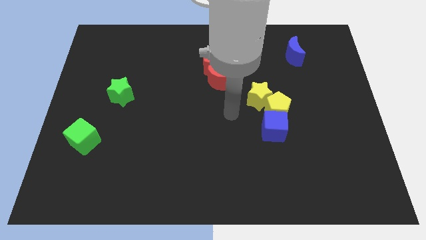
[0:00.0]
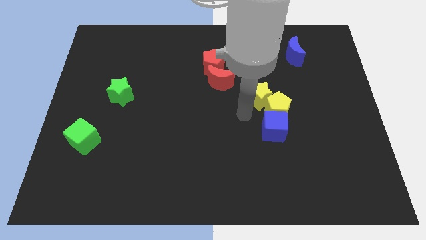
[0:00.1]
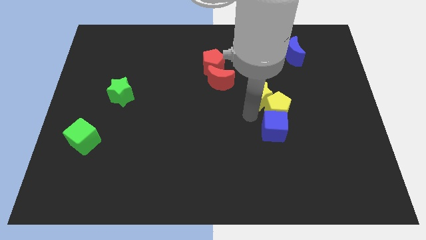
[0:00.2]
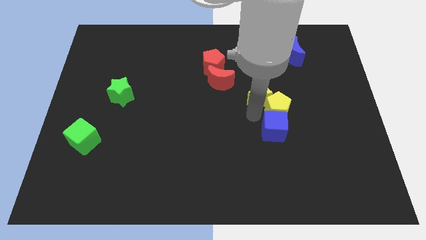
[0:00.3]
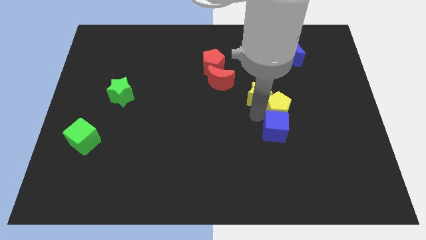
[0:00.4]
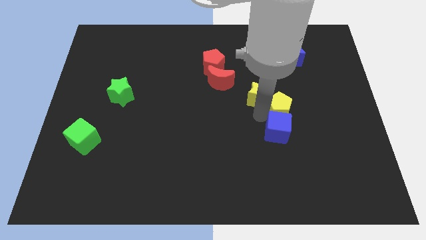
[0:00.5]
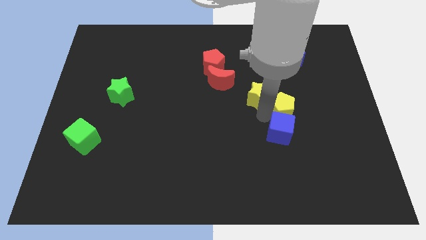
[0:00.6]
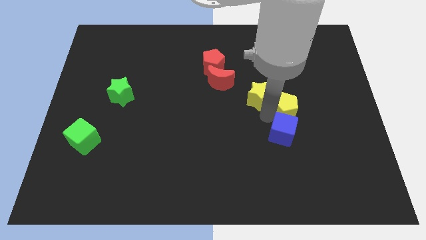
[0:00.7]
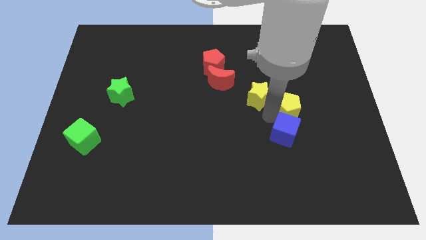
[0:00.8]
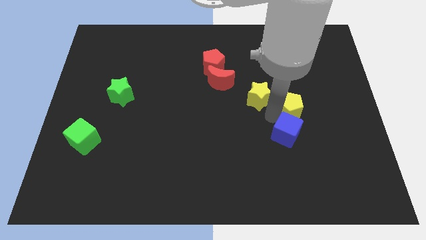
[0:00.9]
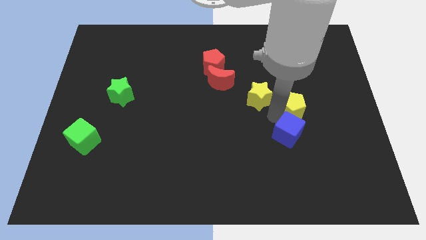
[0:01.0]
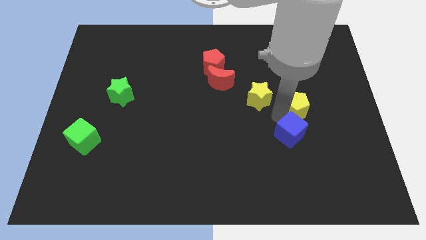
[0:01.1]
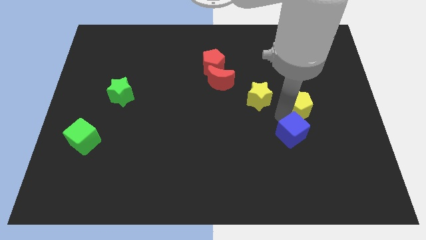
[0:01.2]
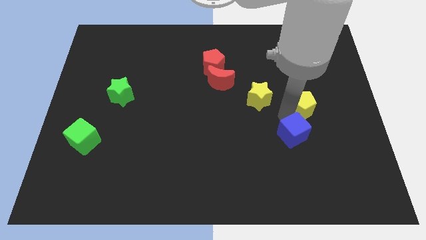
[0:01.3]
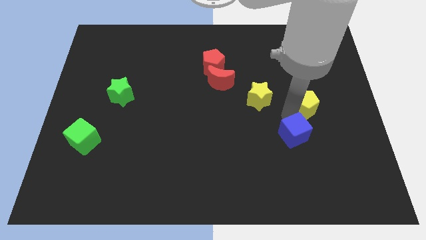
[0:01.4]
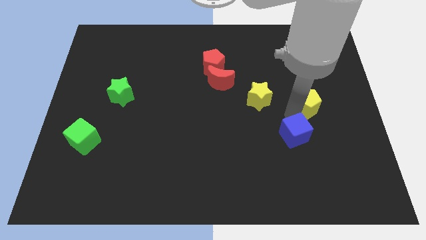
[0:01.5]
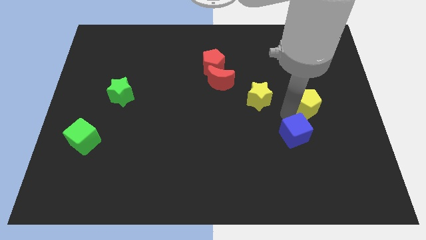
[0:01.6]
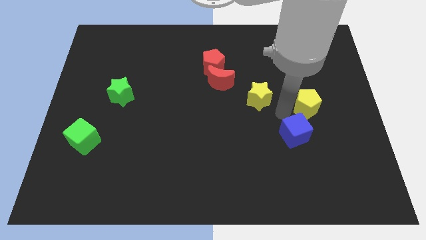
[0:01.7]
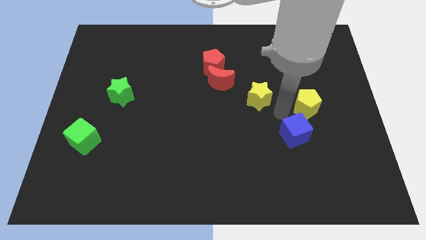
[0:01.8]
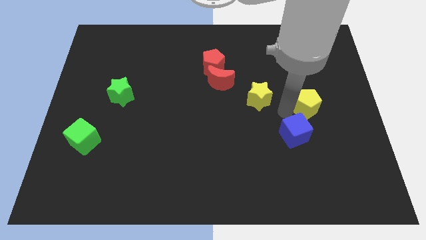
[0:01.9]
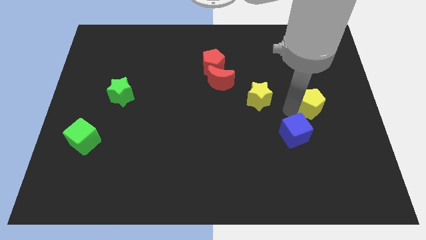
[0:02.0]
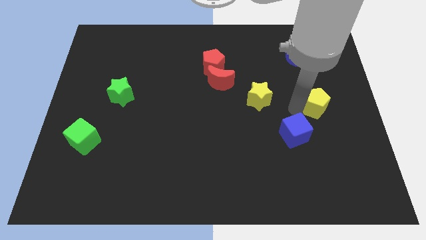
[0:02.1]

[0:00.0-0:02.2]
pull the yellow pentagon apart from the blue cube and yellow star

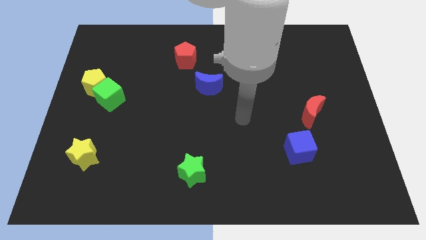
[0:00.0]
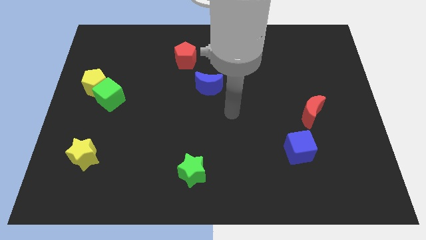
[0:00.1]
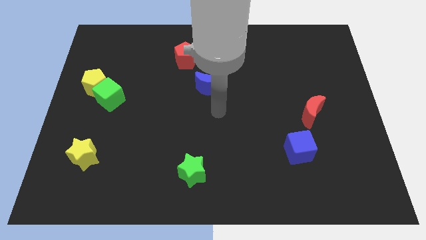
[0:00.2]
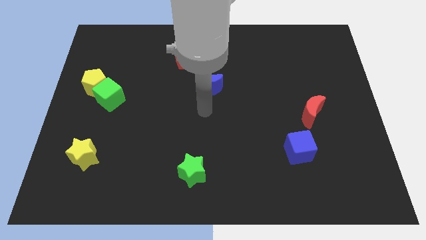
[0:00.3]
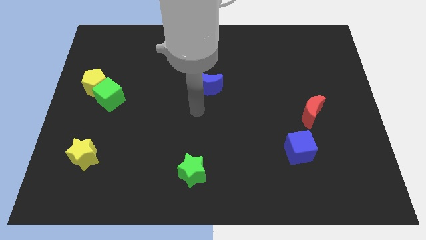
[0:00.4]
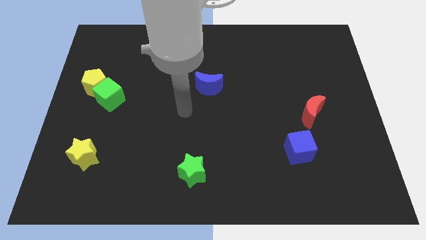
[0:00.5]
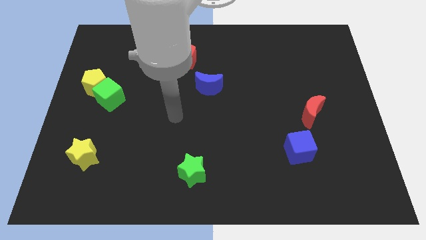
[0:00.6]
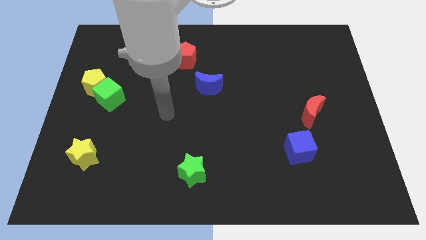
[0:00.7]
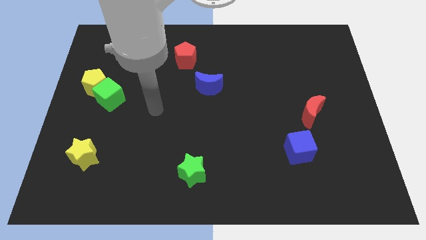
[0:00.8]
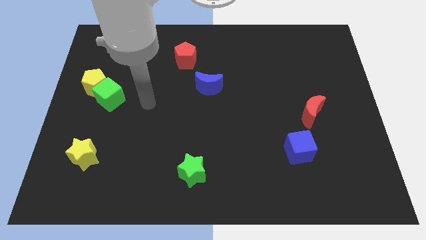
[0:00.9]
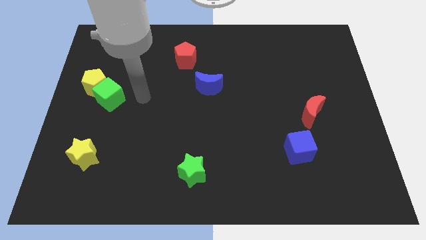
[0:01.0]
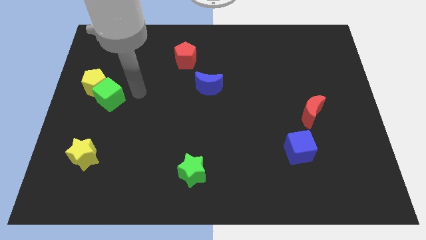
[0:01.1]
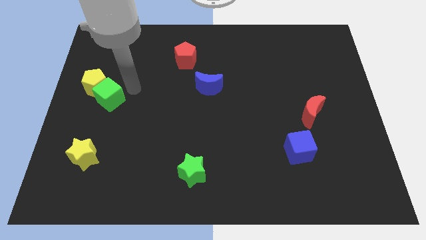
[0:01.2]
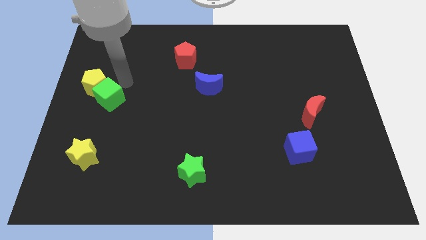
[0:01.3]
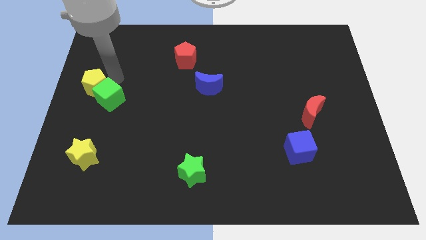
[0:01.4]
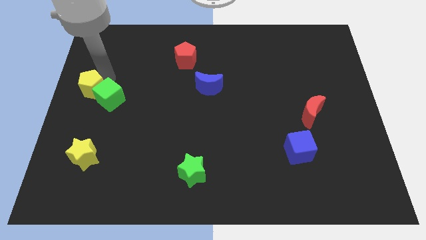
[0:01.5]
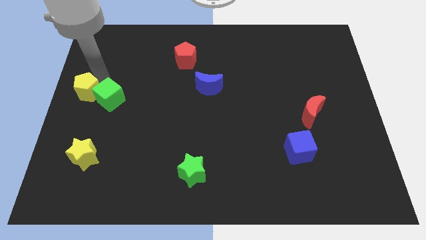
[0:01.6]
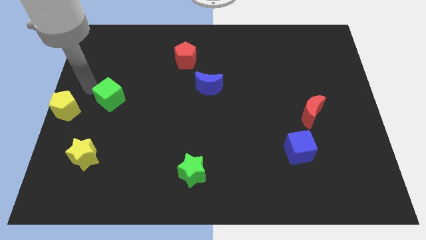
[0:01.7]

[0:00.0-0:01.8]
pull the green cube apart from the yellow pentagon

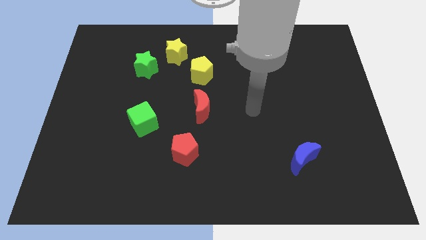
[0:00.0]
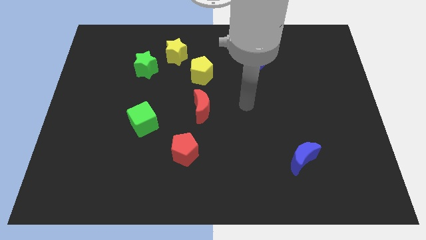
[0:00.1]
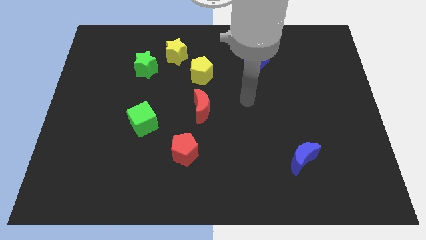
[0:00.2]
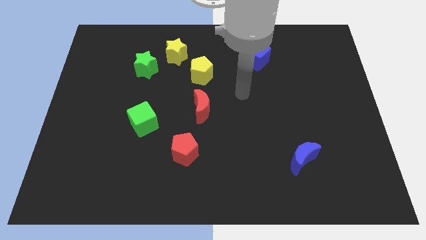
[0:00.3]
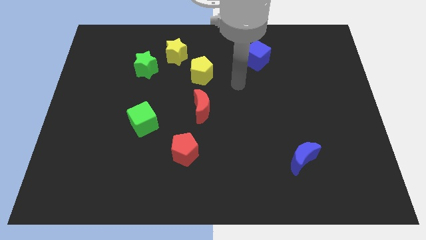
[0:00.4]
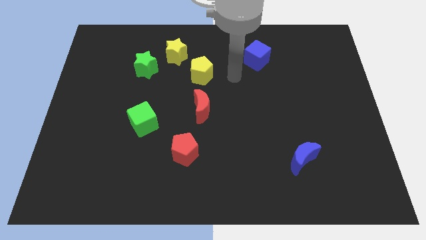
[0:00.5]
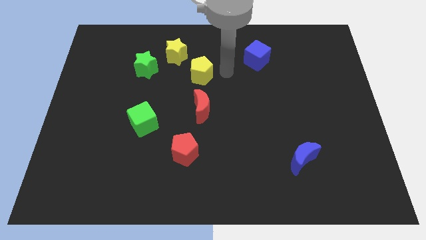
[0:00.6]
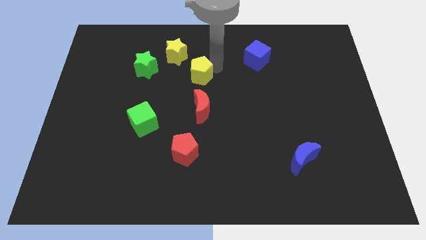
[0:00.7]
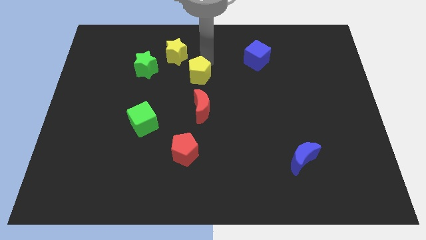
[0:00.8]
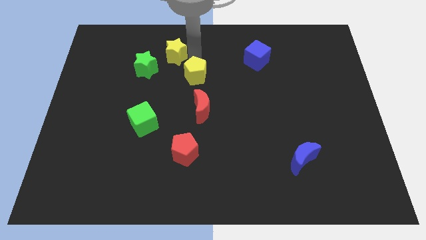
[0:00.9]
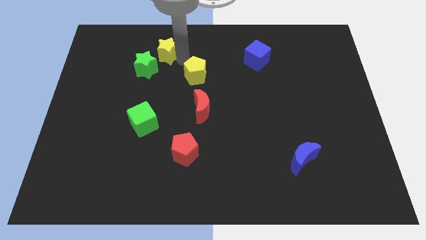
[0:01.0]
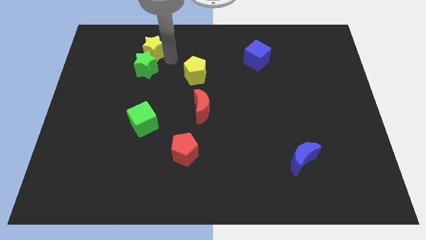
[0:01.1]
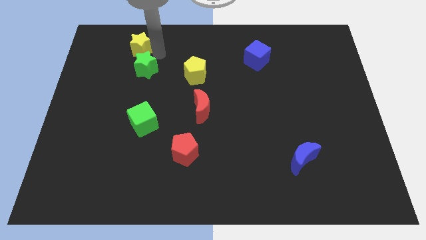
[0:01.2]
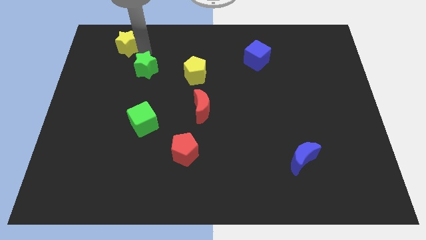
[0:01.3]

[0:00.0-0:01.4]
separate the green star from the yellow star

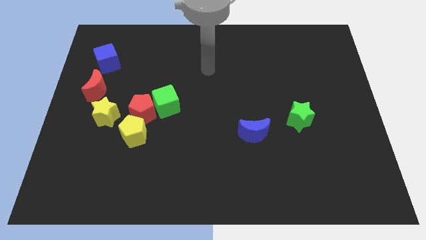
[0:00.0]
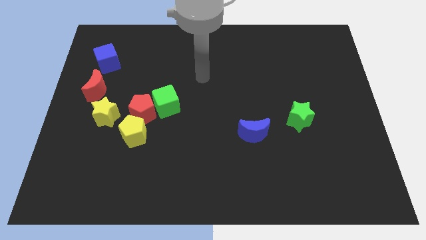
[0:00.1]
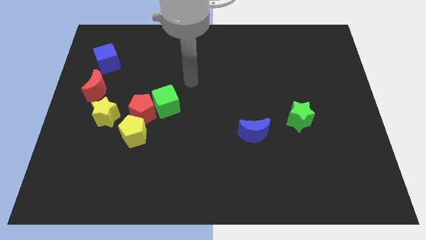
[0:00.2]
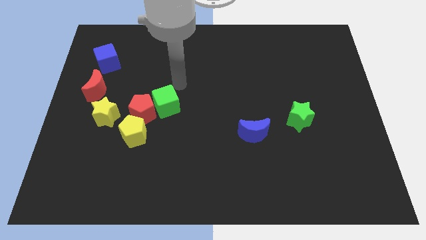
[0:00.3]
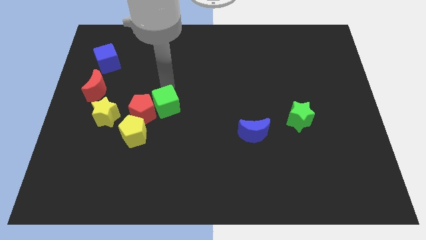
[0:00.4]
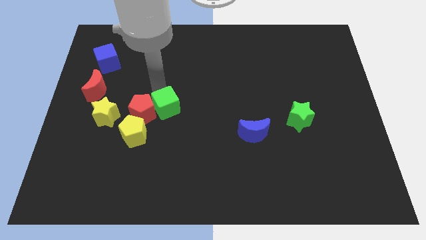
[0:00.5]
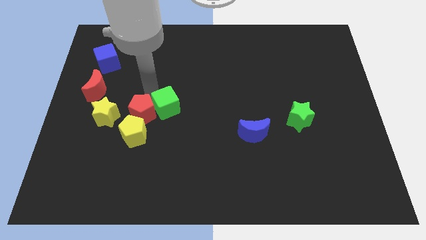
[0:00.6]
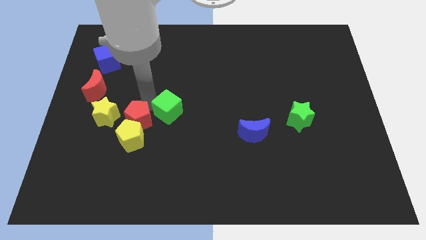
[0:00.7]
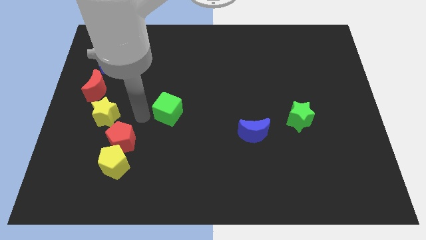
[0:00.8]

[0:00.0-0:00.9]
pull the green cube apart from the red pentagon

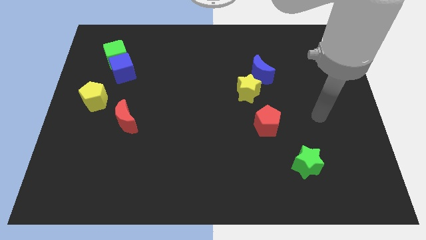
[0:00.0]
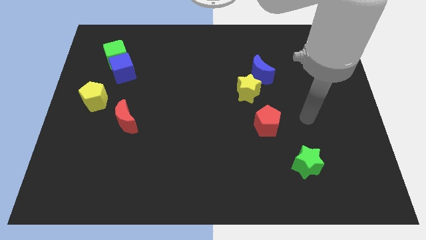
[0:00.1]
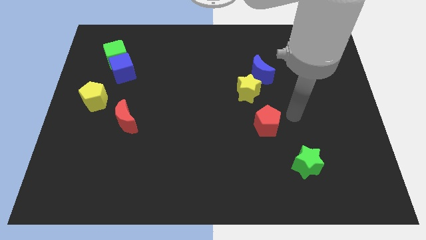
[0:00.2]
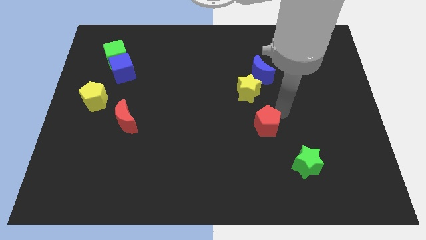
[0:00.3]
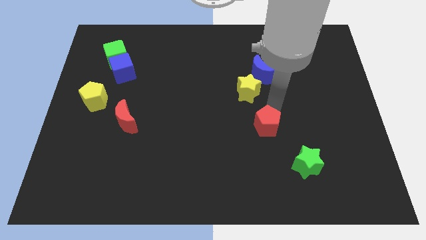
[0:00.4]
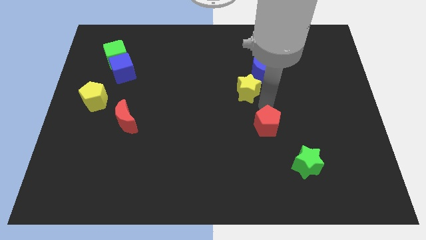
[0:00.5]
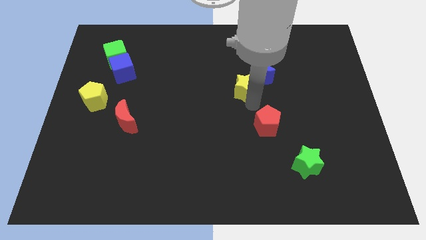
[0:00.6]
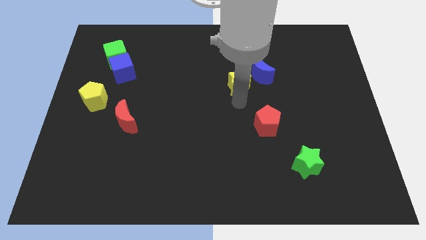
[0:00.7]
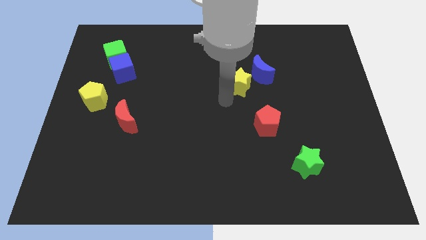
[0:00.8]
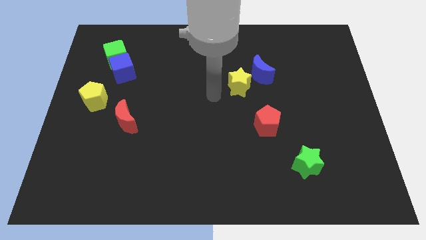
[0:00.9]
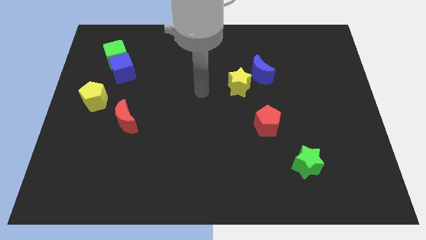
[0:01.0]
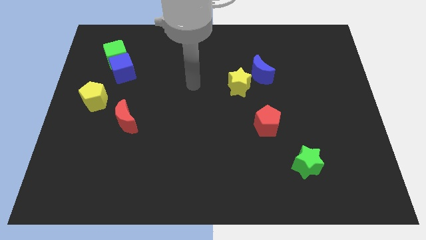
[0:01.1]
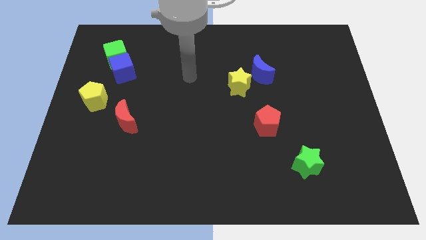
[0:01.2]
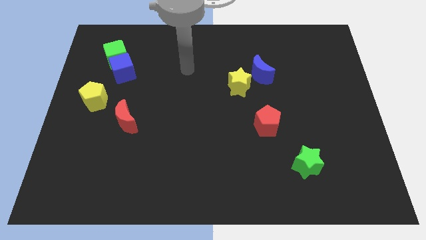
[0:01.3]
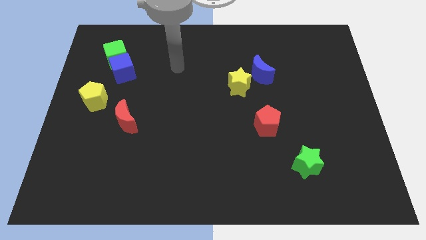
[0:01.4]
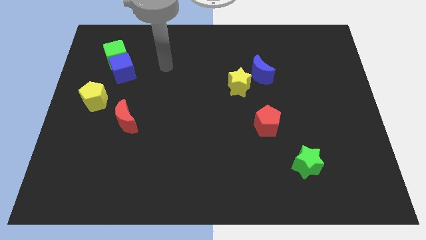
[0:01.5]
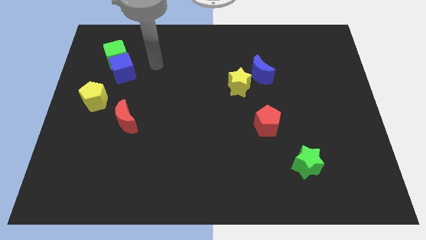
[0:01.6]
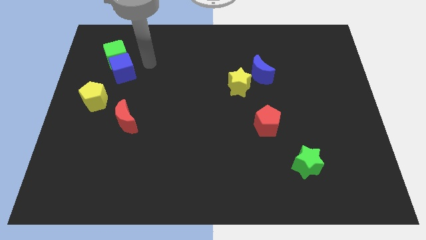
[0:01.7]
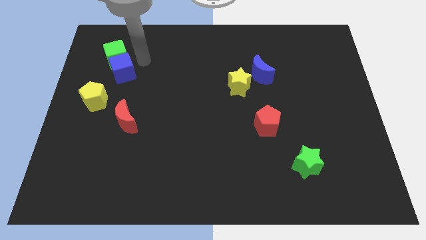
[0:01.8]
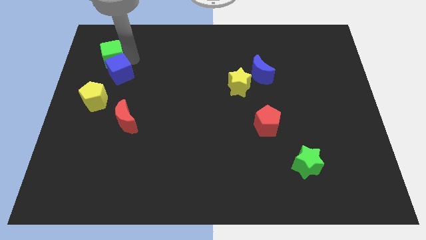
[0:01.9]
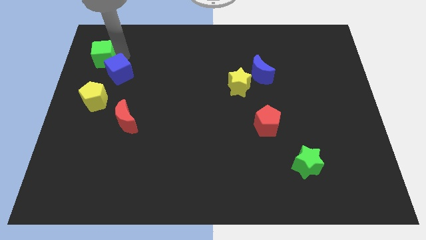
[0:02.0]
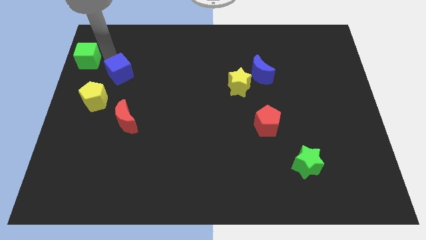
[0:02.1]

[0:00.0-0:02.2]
move the blue cube away from the green cube

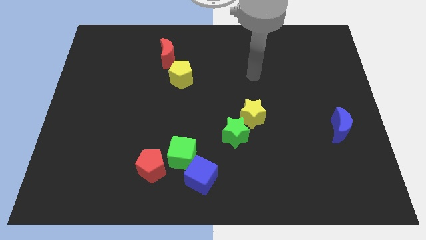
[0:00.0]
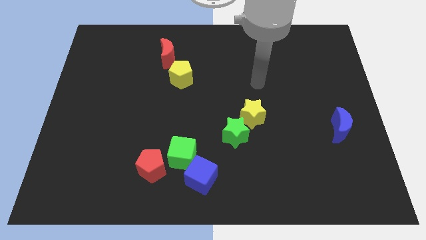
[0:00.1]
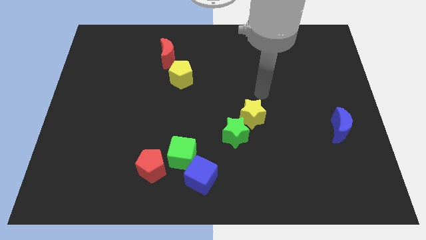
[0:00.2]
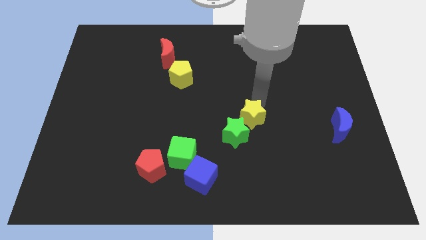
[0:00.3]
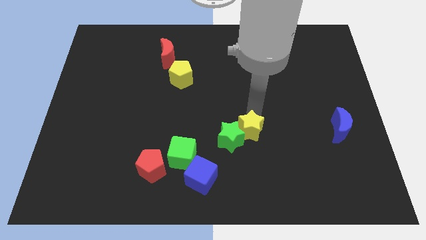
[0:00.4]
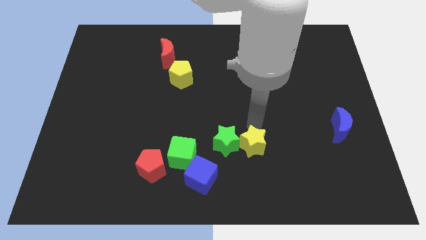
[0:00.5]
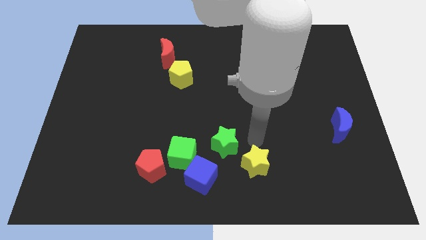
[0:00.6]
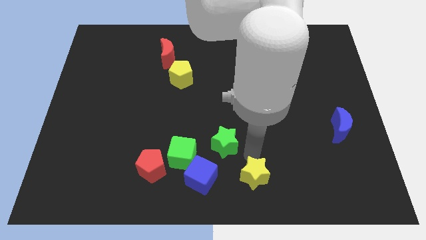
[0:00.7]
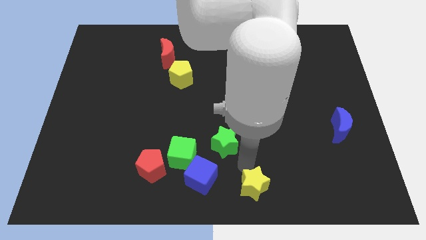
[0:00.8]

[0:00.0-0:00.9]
pull the green star apart from the yellow star
